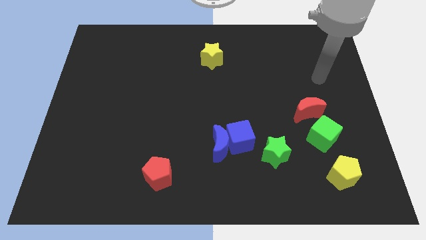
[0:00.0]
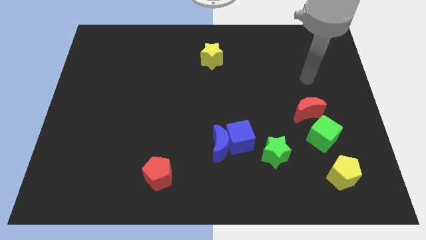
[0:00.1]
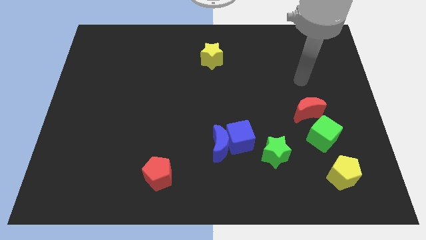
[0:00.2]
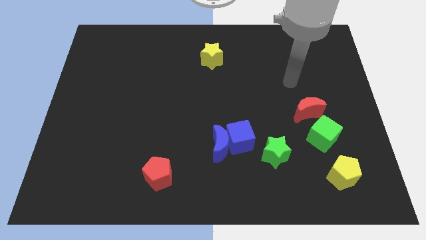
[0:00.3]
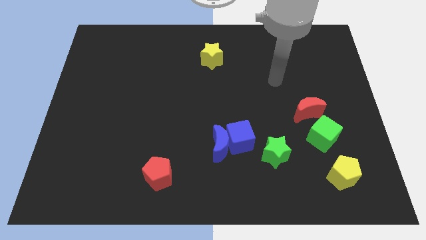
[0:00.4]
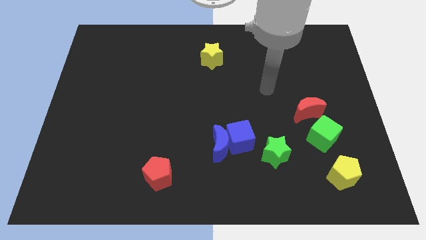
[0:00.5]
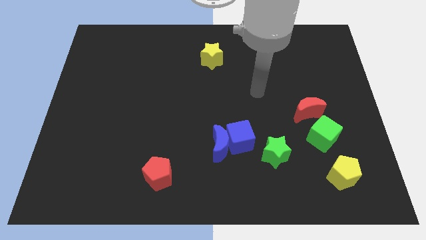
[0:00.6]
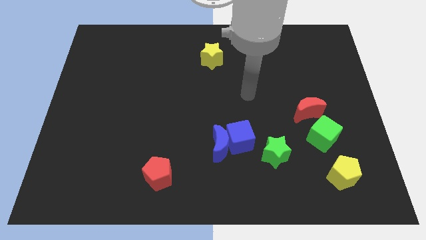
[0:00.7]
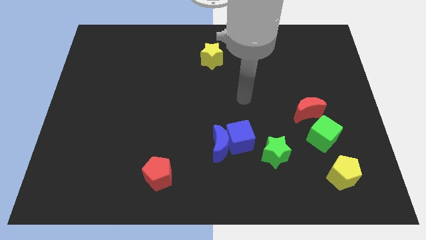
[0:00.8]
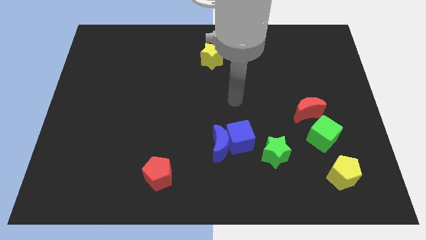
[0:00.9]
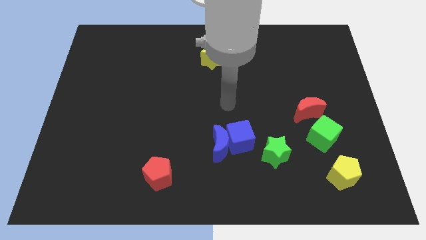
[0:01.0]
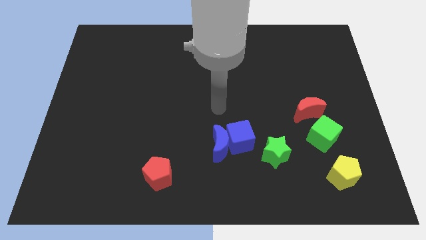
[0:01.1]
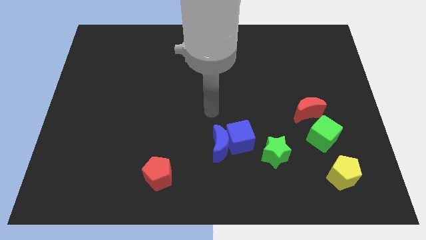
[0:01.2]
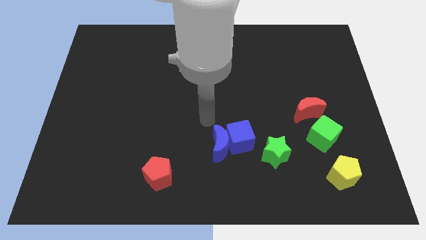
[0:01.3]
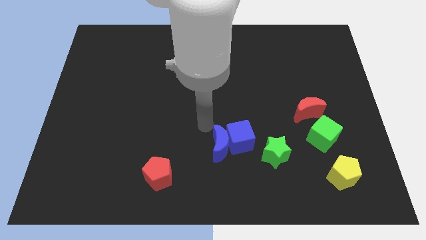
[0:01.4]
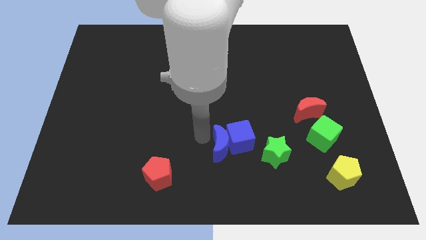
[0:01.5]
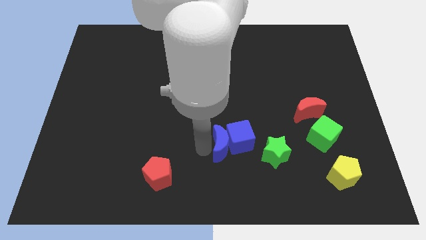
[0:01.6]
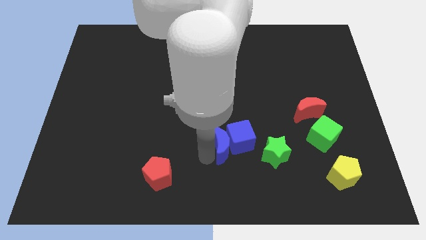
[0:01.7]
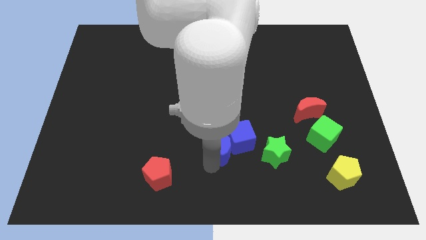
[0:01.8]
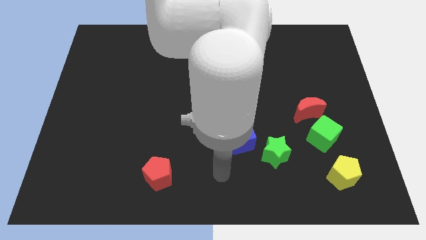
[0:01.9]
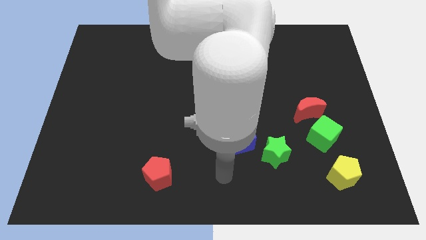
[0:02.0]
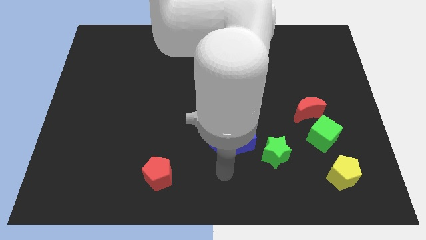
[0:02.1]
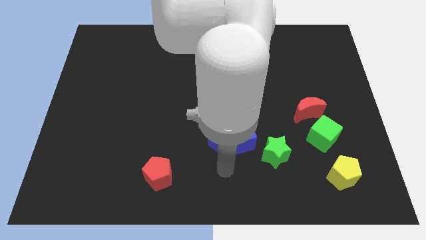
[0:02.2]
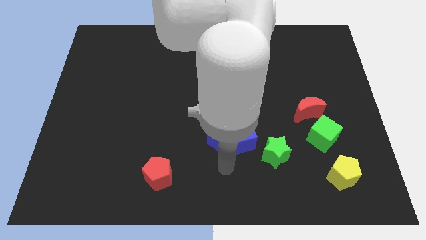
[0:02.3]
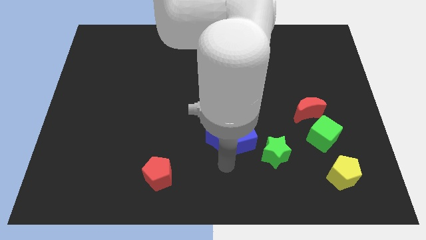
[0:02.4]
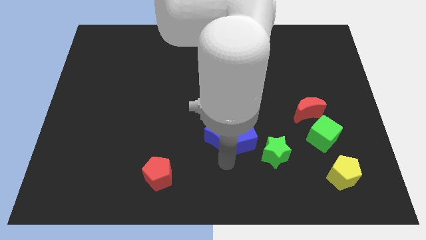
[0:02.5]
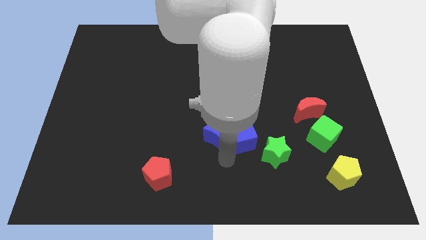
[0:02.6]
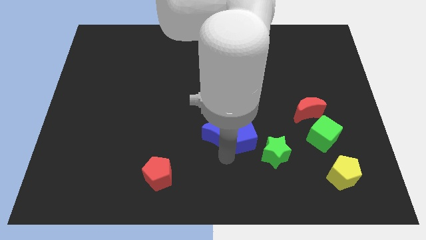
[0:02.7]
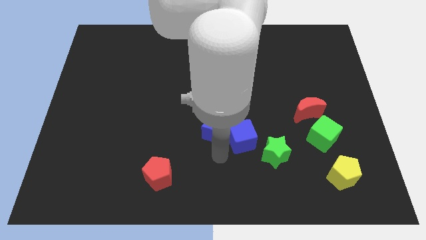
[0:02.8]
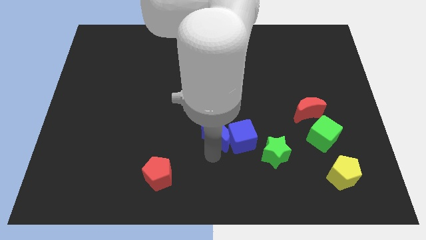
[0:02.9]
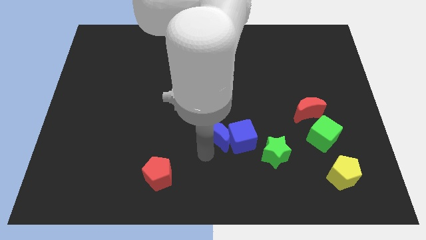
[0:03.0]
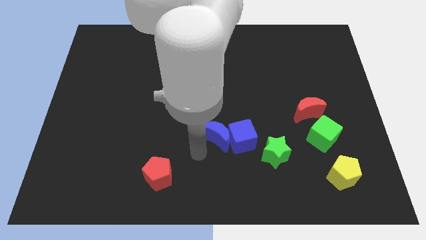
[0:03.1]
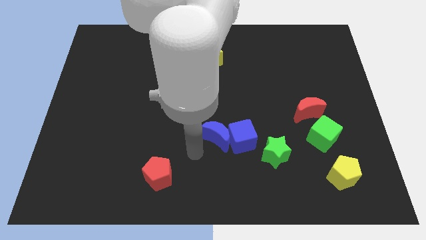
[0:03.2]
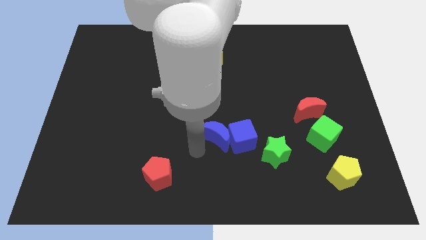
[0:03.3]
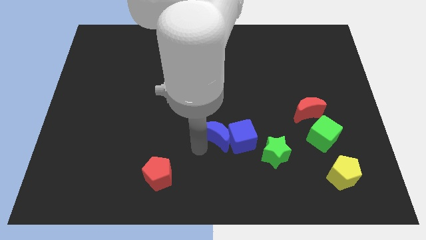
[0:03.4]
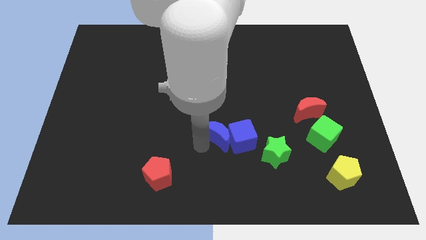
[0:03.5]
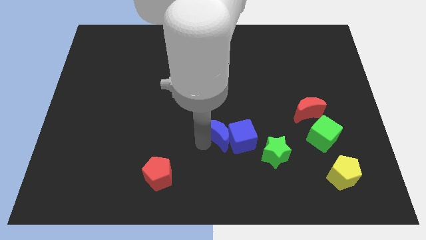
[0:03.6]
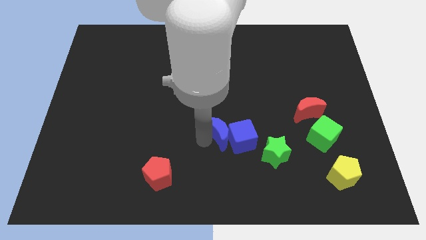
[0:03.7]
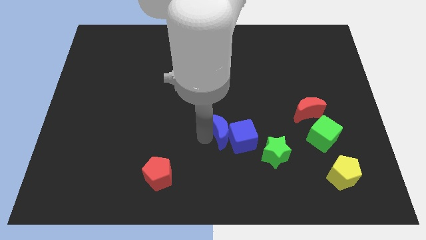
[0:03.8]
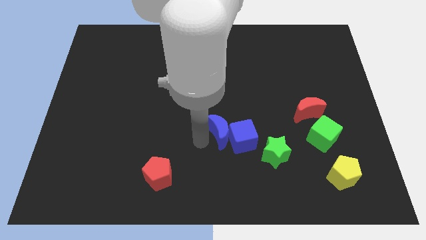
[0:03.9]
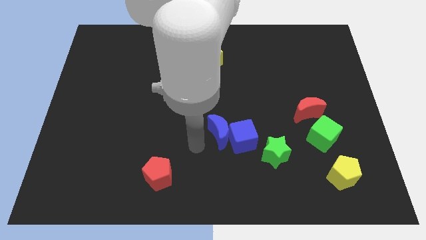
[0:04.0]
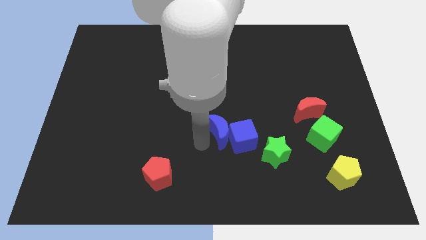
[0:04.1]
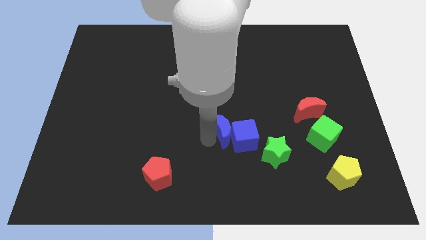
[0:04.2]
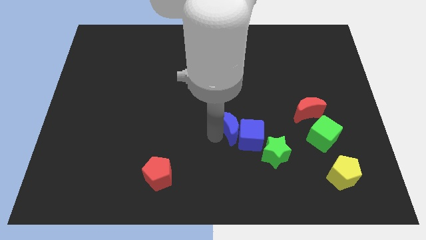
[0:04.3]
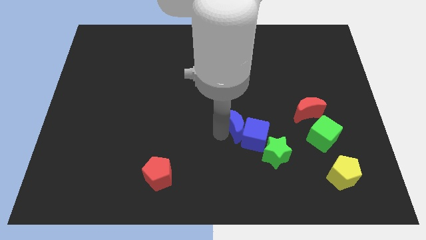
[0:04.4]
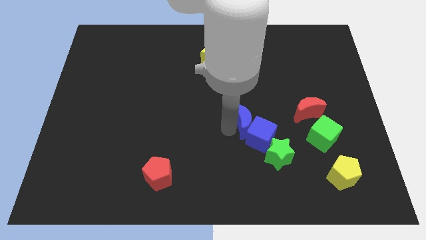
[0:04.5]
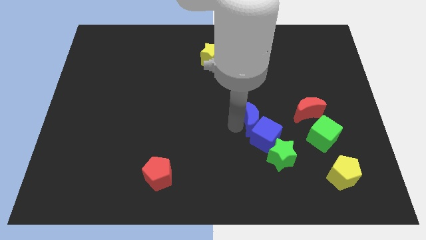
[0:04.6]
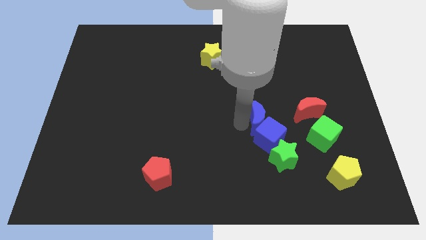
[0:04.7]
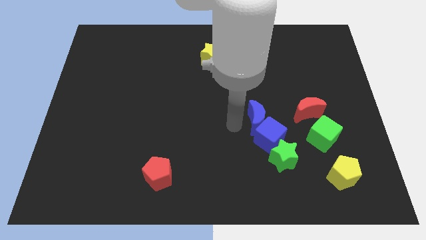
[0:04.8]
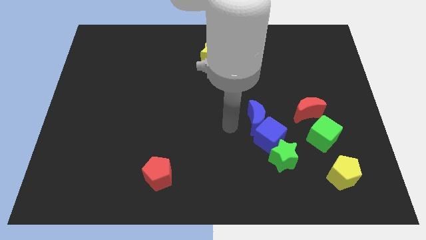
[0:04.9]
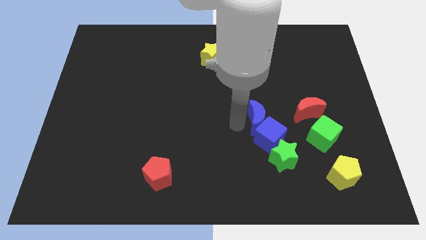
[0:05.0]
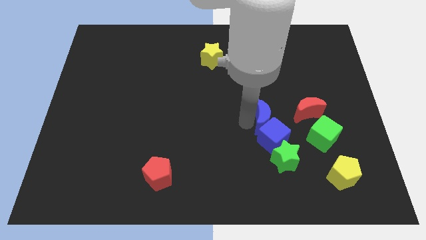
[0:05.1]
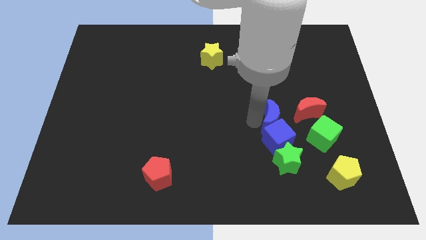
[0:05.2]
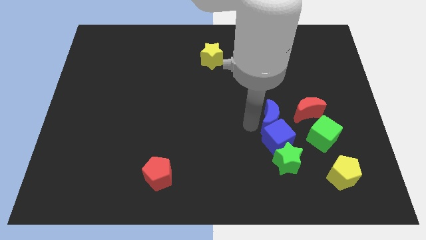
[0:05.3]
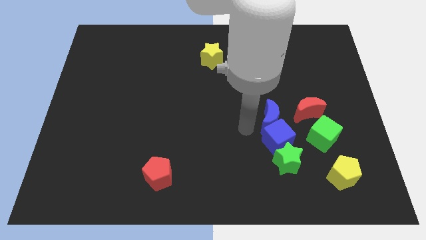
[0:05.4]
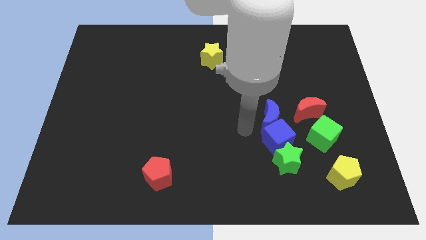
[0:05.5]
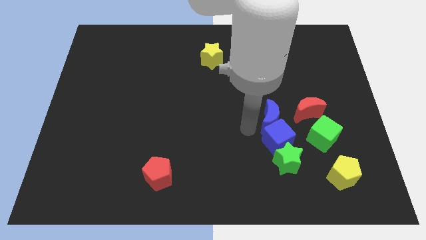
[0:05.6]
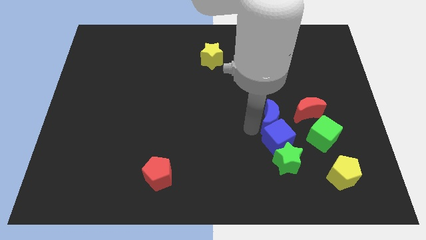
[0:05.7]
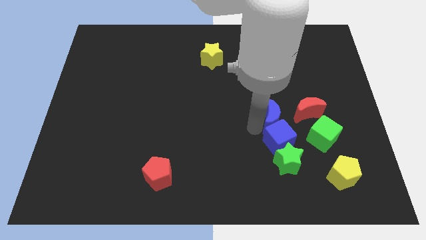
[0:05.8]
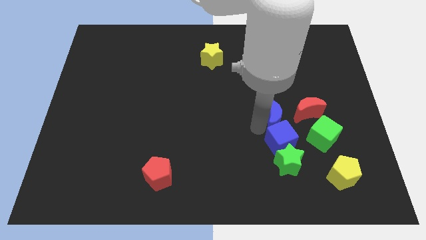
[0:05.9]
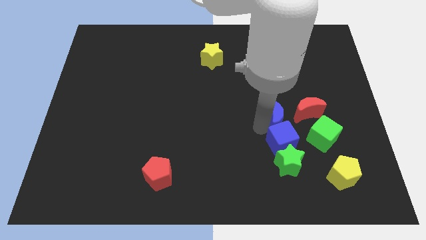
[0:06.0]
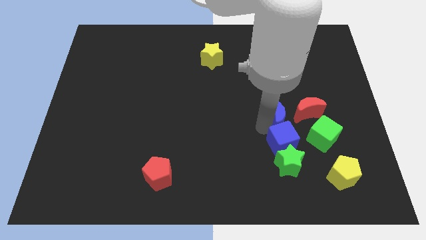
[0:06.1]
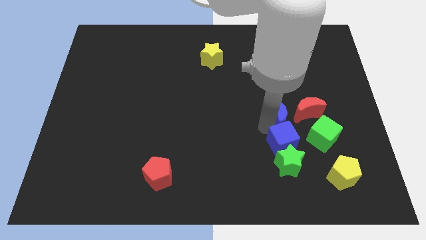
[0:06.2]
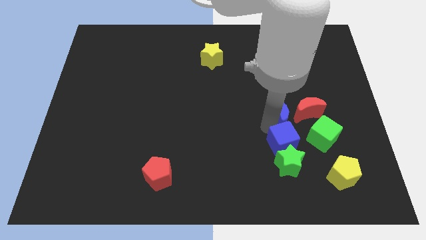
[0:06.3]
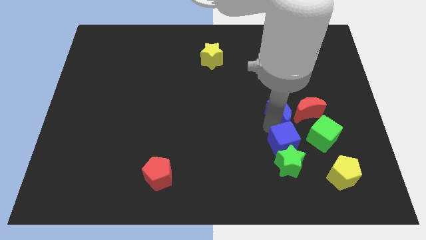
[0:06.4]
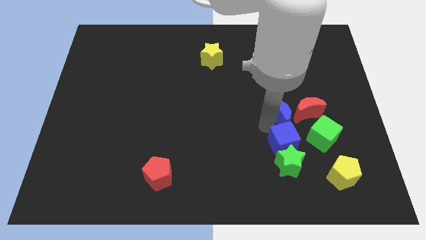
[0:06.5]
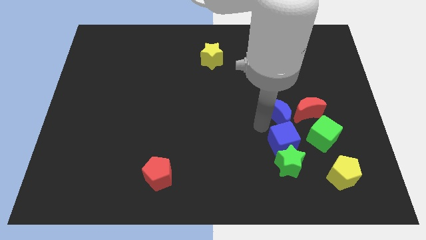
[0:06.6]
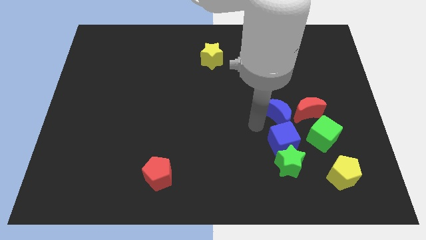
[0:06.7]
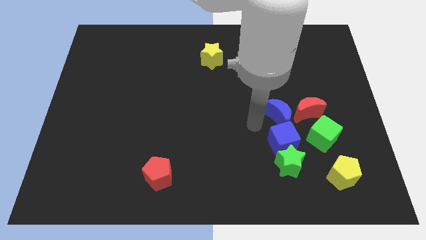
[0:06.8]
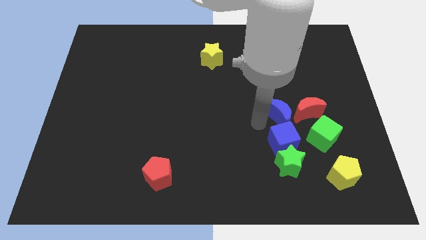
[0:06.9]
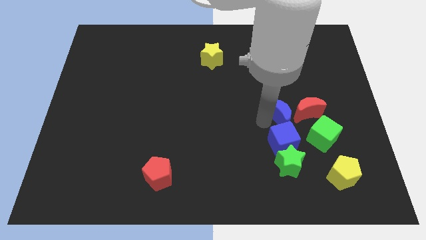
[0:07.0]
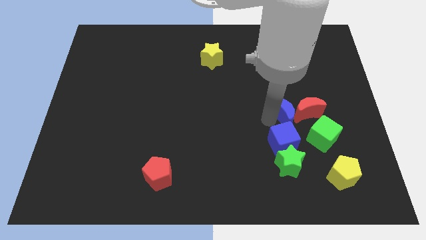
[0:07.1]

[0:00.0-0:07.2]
move the blue moon close to the red moon

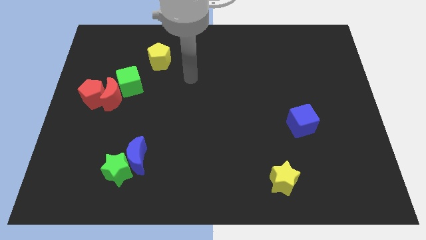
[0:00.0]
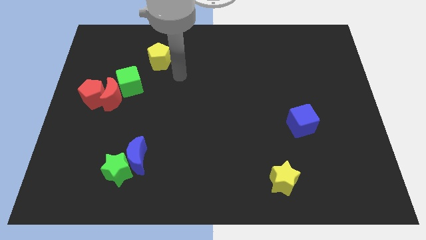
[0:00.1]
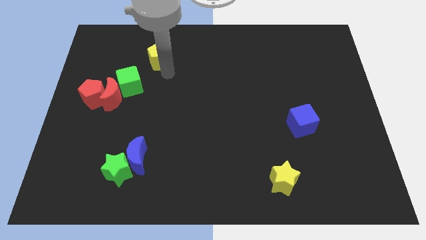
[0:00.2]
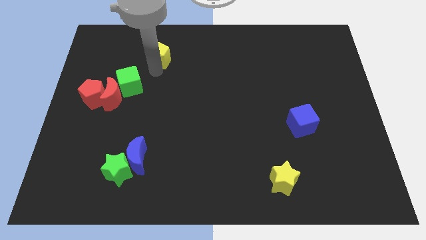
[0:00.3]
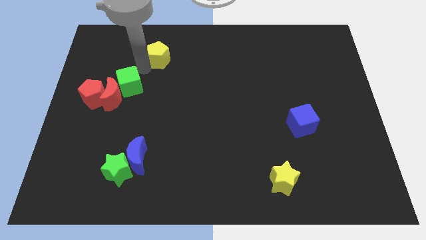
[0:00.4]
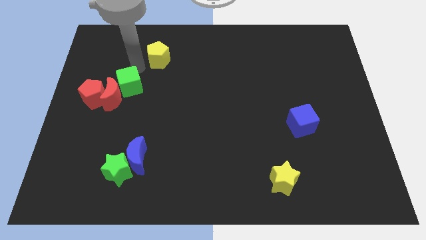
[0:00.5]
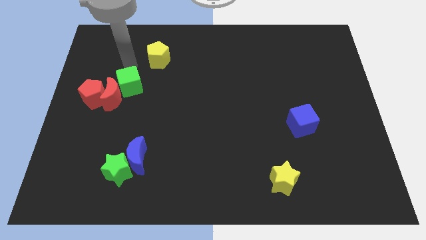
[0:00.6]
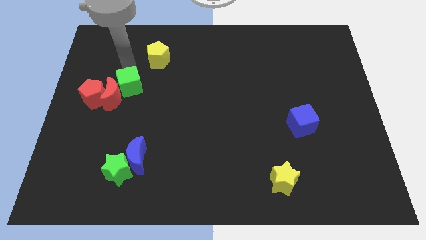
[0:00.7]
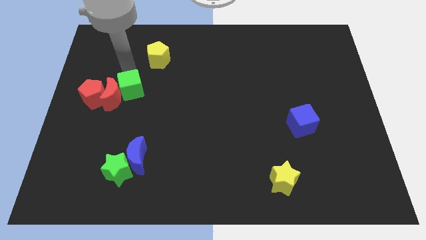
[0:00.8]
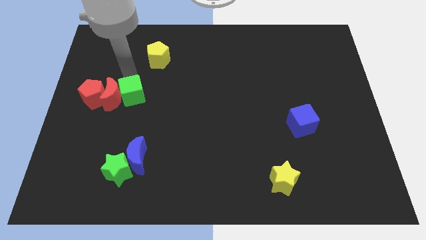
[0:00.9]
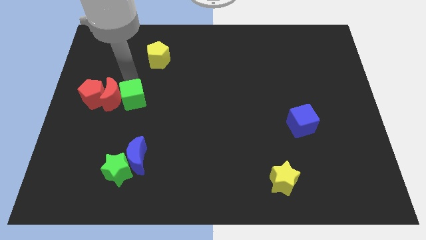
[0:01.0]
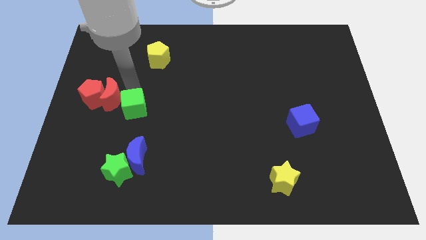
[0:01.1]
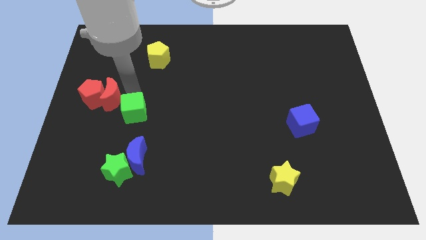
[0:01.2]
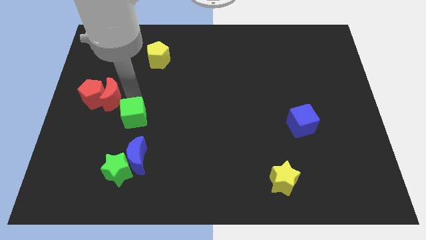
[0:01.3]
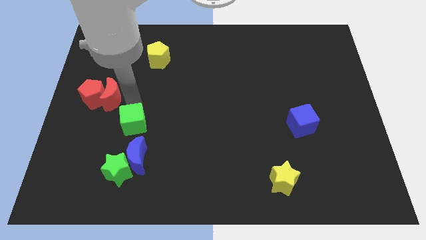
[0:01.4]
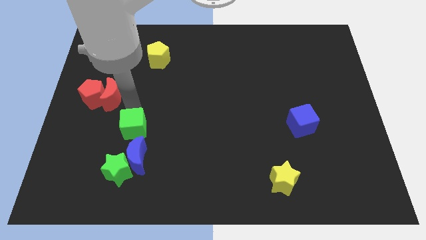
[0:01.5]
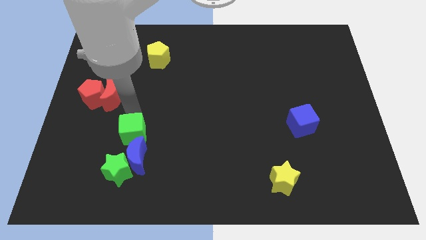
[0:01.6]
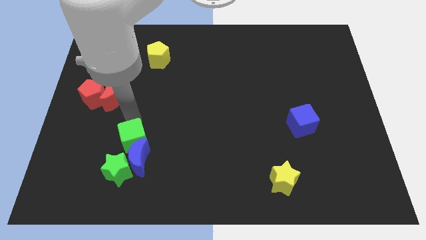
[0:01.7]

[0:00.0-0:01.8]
slide the green cube to the blue moon
